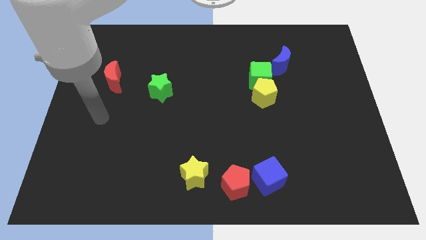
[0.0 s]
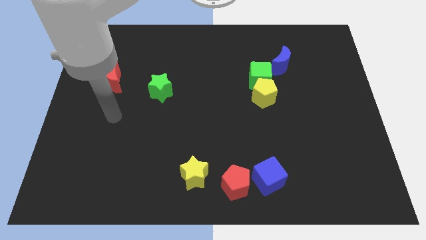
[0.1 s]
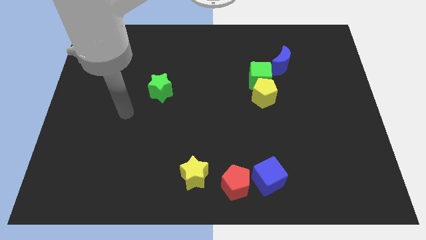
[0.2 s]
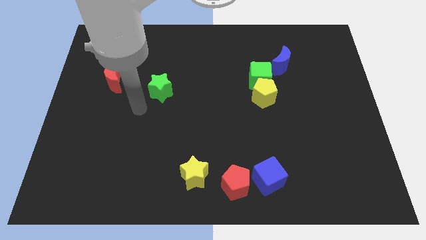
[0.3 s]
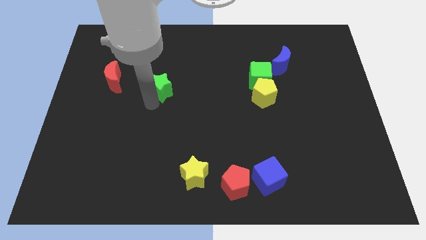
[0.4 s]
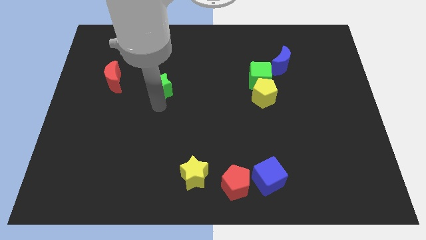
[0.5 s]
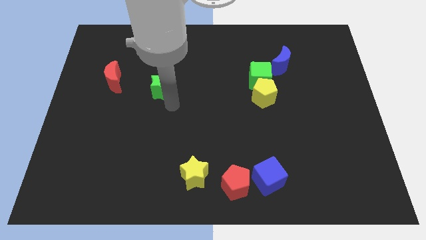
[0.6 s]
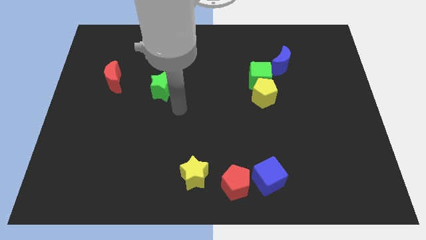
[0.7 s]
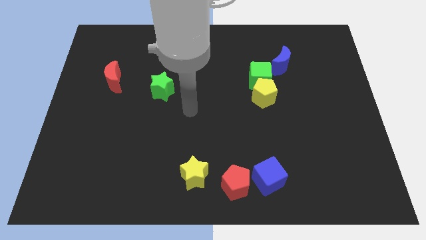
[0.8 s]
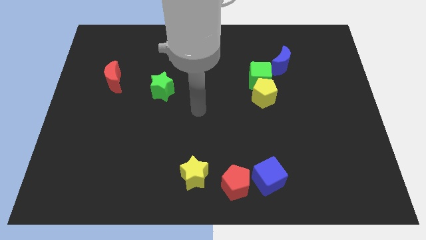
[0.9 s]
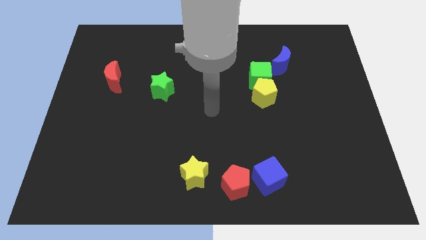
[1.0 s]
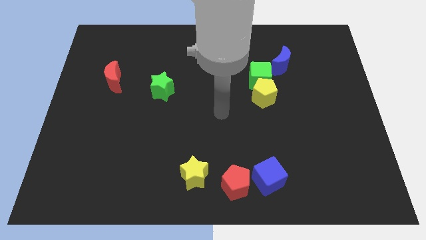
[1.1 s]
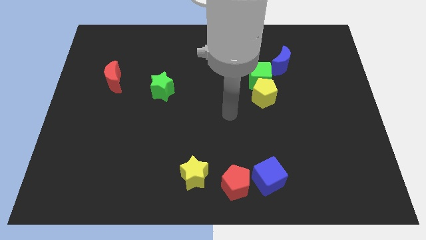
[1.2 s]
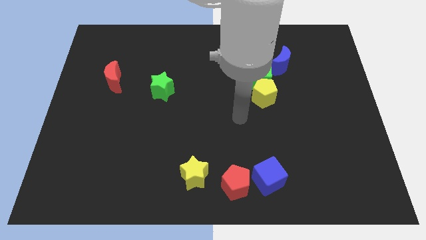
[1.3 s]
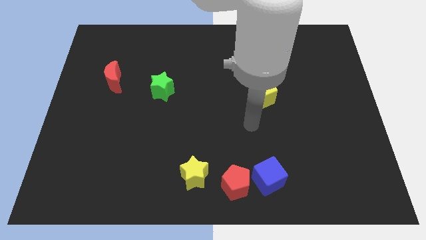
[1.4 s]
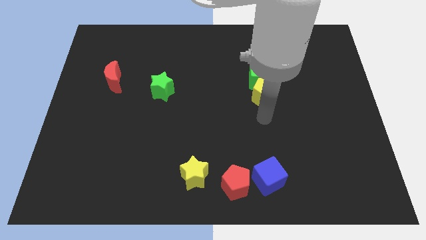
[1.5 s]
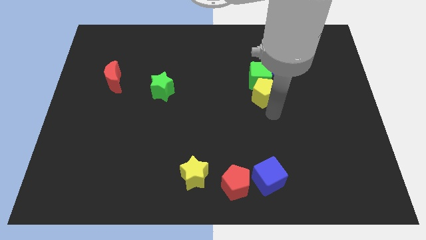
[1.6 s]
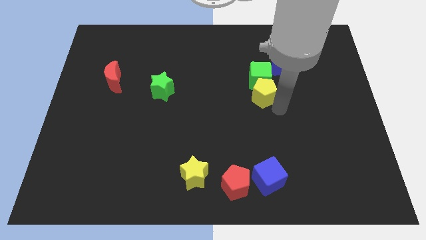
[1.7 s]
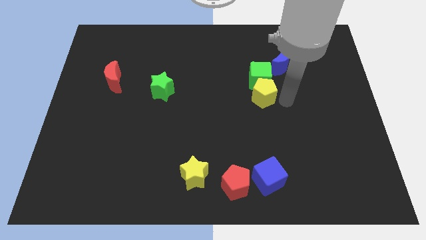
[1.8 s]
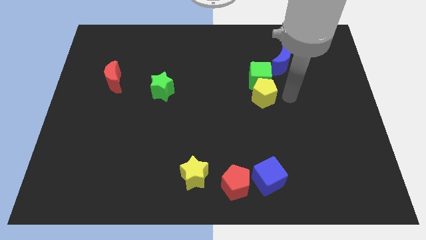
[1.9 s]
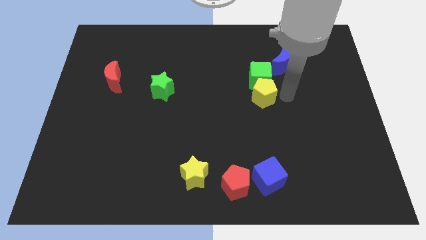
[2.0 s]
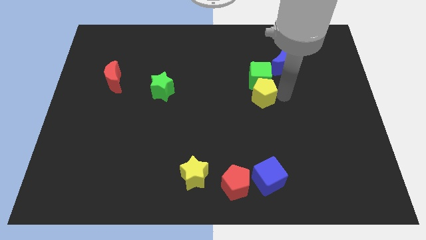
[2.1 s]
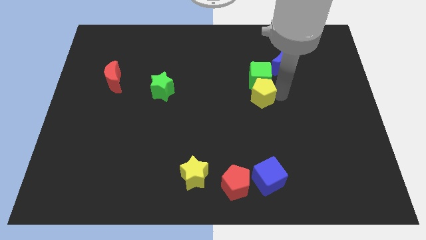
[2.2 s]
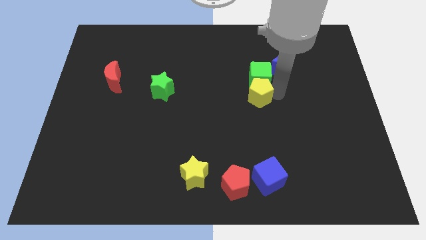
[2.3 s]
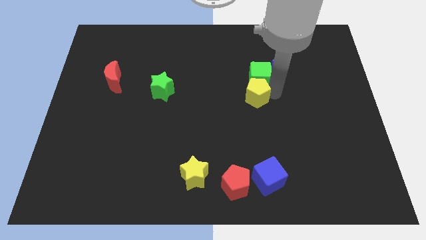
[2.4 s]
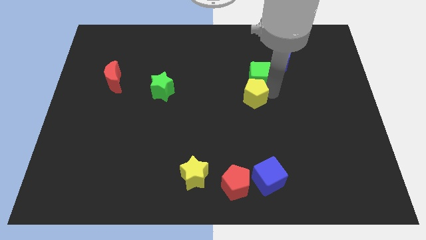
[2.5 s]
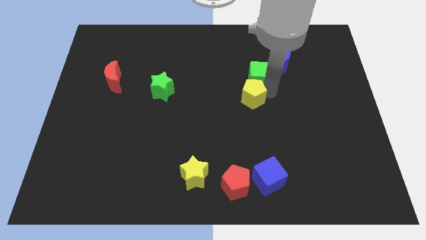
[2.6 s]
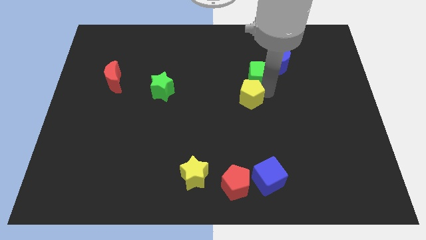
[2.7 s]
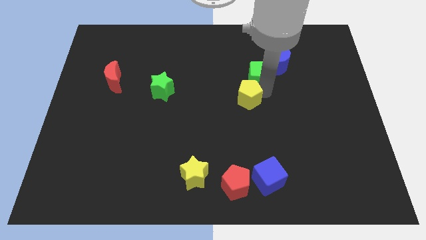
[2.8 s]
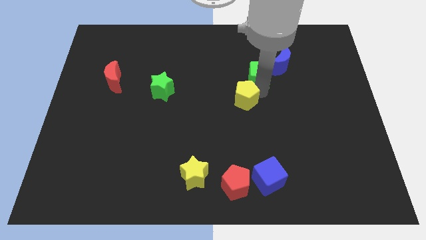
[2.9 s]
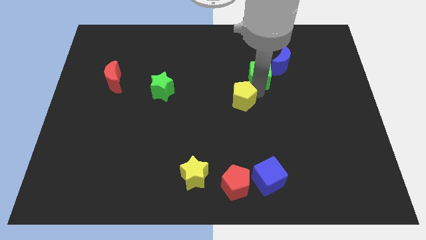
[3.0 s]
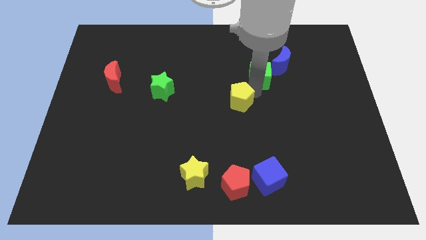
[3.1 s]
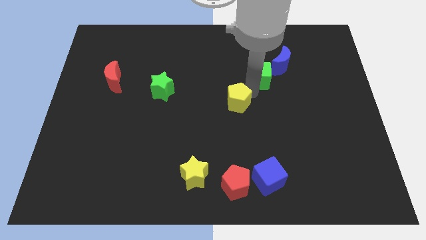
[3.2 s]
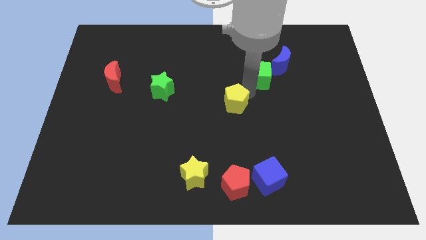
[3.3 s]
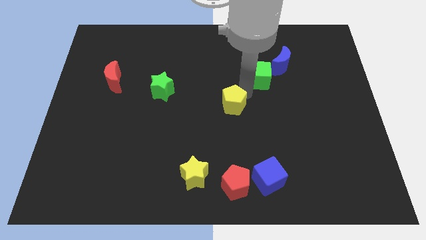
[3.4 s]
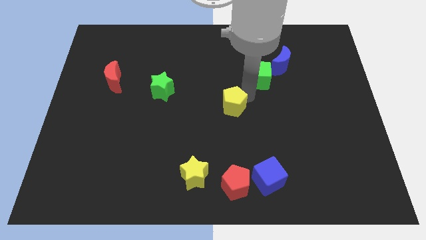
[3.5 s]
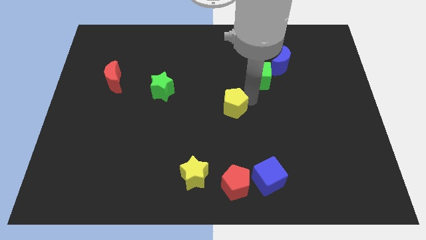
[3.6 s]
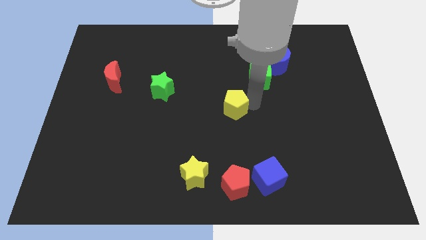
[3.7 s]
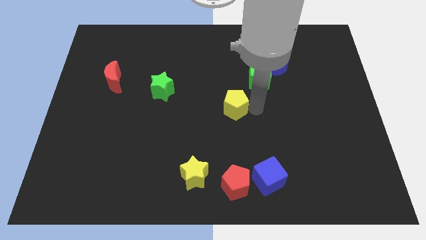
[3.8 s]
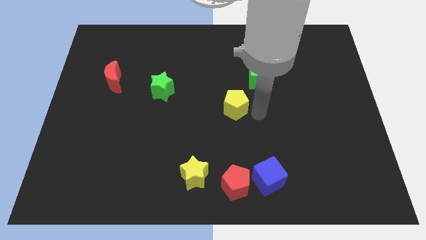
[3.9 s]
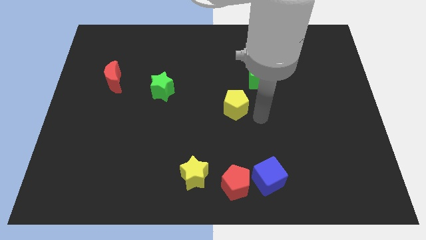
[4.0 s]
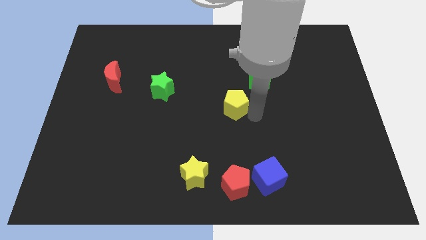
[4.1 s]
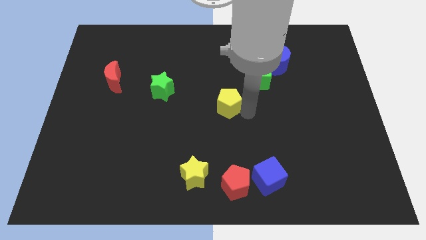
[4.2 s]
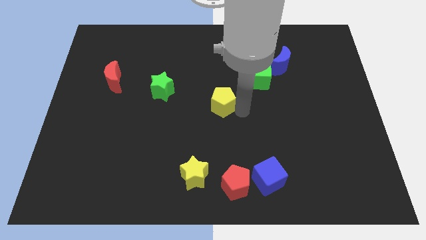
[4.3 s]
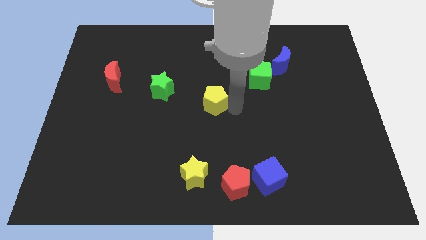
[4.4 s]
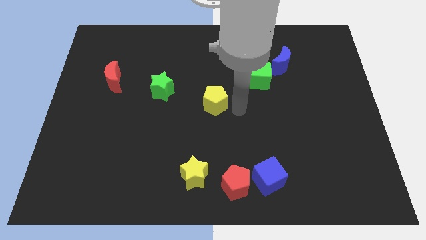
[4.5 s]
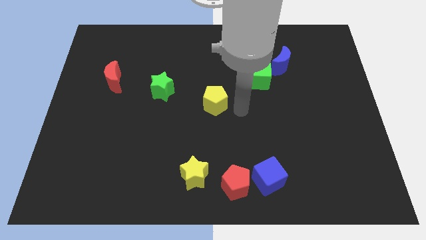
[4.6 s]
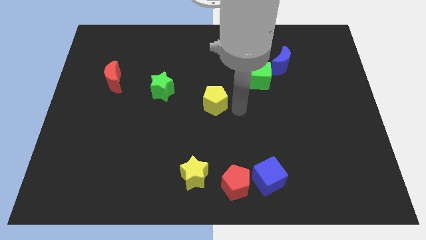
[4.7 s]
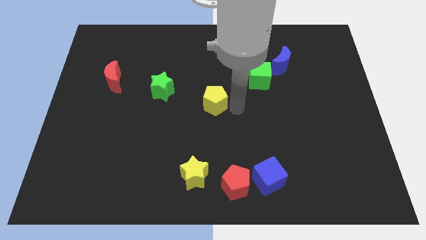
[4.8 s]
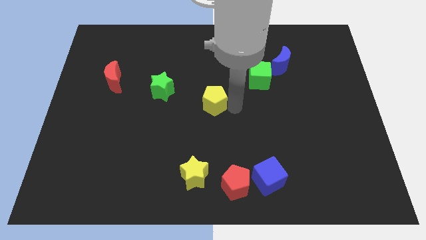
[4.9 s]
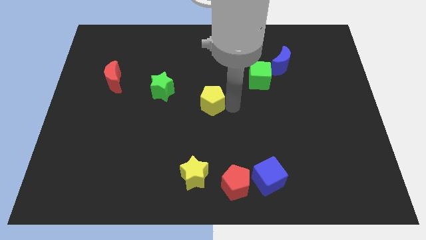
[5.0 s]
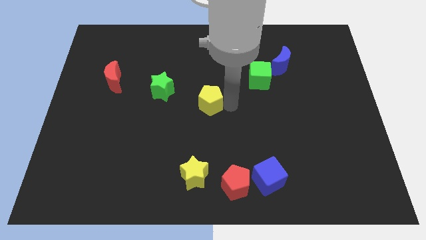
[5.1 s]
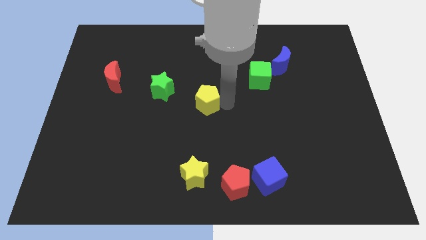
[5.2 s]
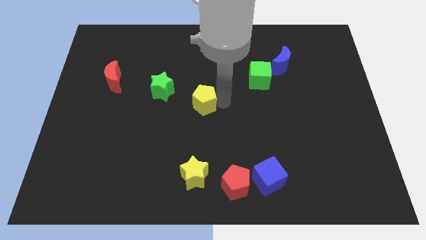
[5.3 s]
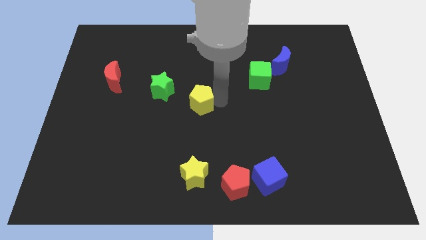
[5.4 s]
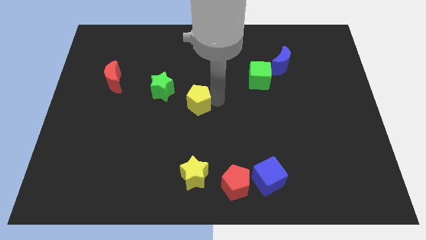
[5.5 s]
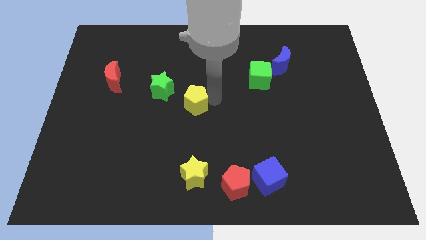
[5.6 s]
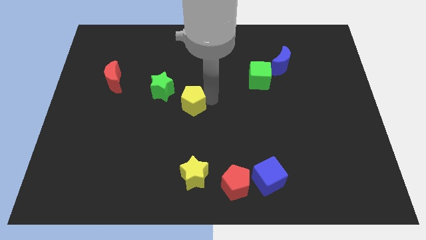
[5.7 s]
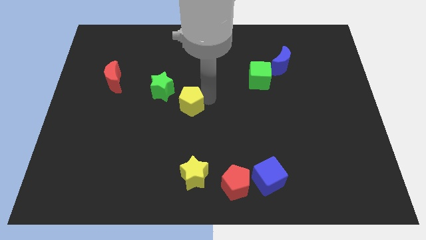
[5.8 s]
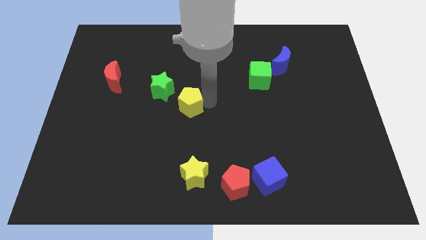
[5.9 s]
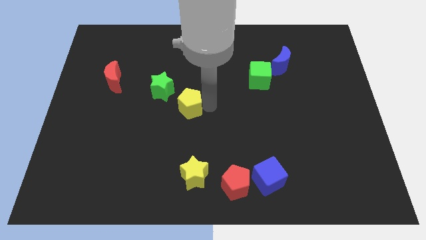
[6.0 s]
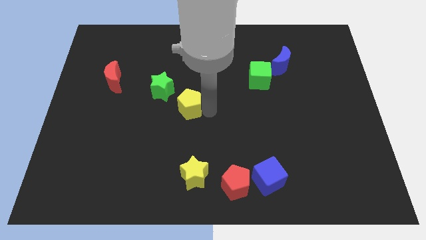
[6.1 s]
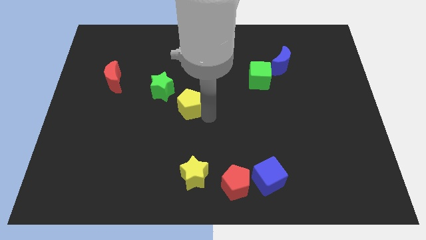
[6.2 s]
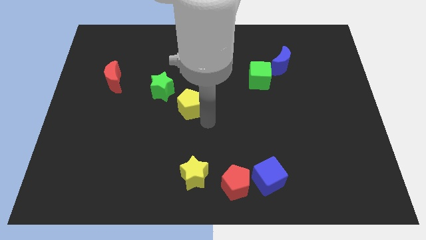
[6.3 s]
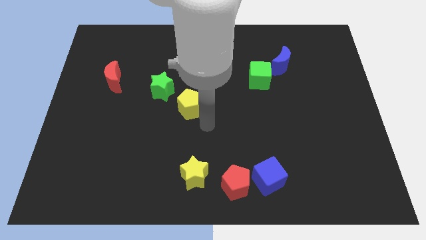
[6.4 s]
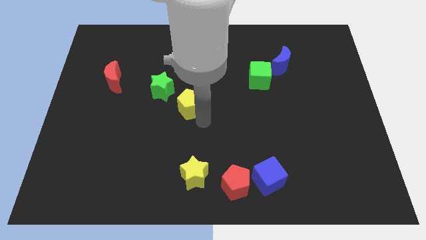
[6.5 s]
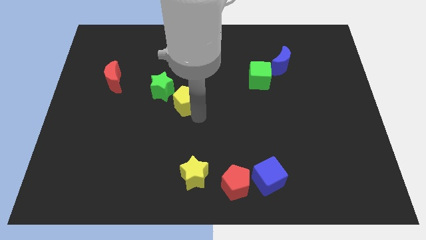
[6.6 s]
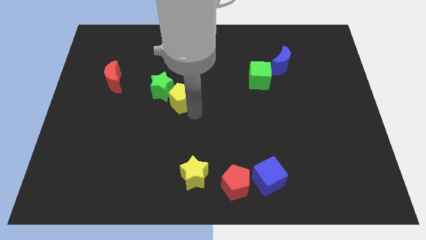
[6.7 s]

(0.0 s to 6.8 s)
push the yellow pentagon towards the green star
